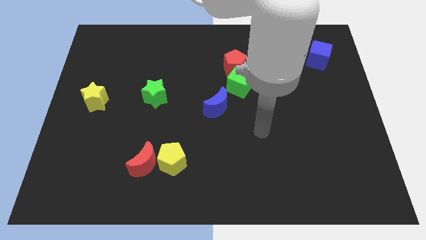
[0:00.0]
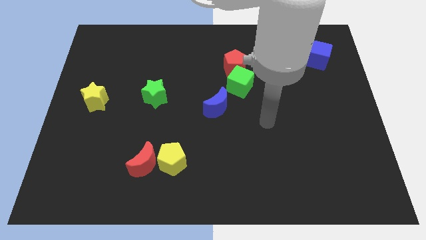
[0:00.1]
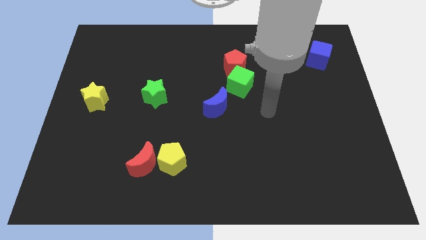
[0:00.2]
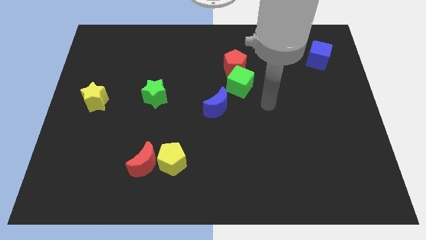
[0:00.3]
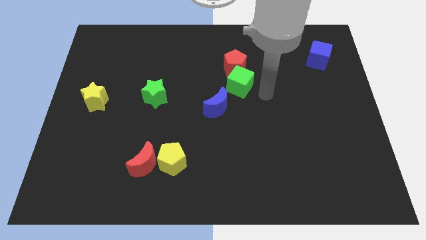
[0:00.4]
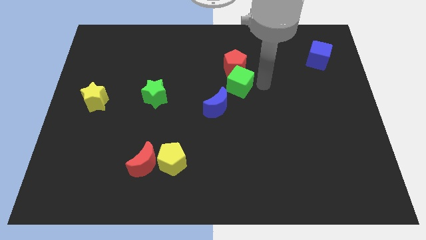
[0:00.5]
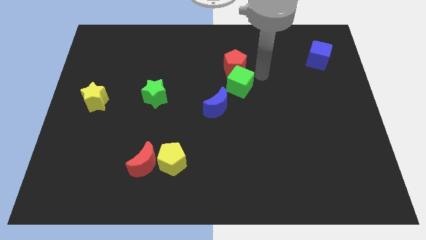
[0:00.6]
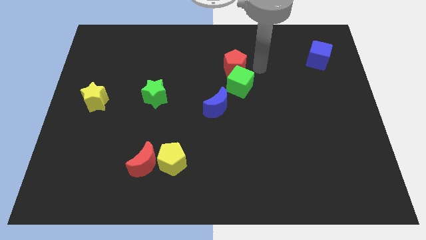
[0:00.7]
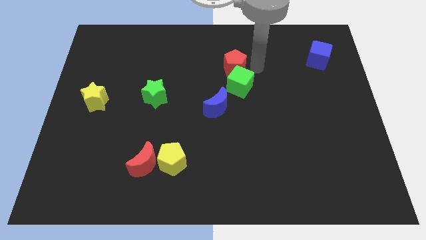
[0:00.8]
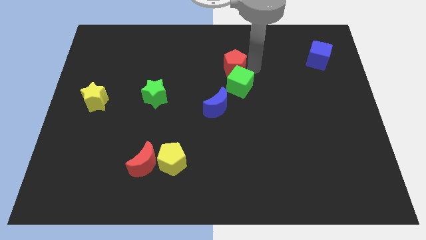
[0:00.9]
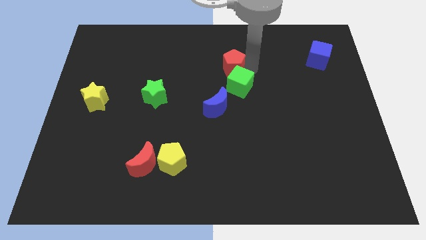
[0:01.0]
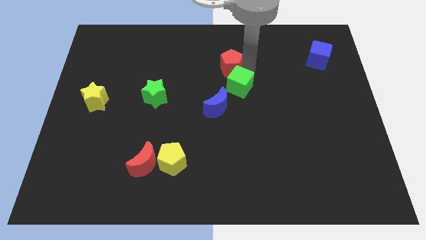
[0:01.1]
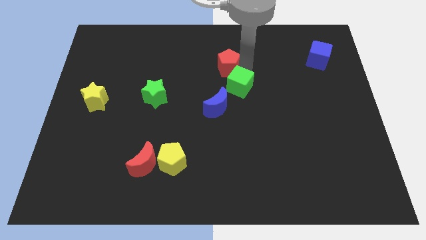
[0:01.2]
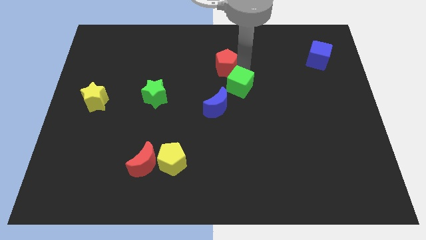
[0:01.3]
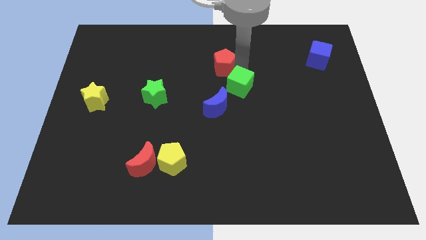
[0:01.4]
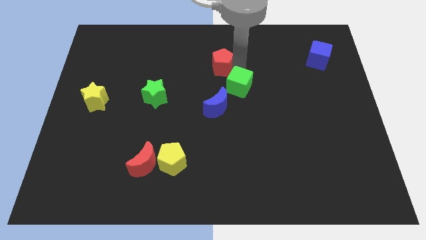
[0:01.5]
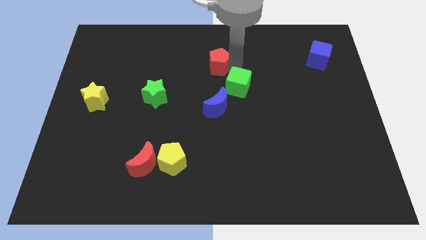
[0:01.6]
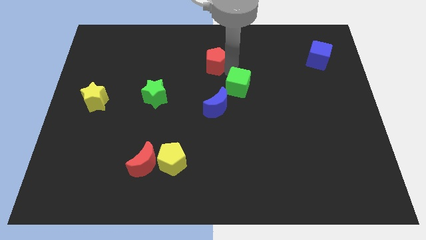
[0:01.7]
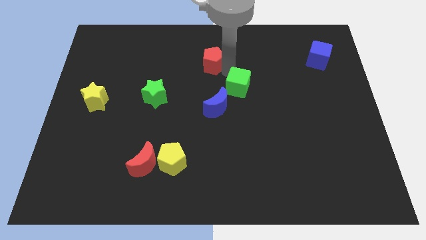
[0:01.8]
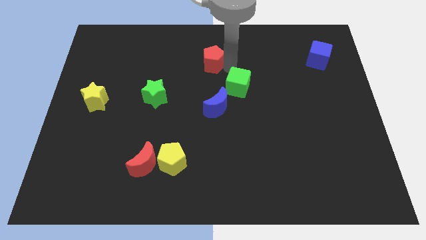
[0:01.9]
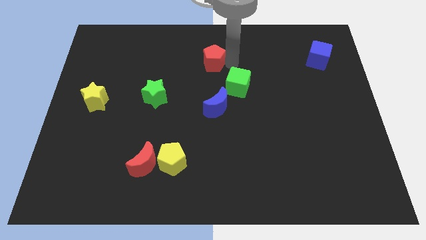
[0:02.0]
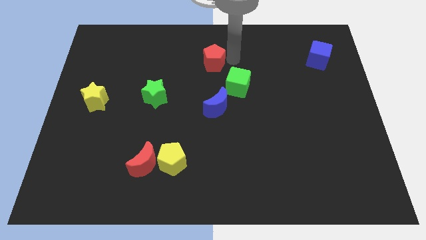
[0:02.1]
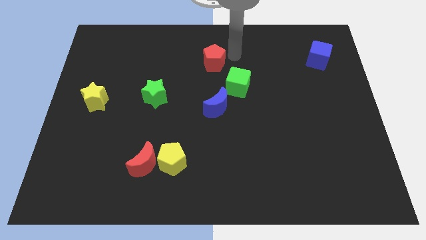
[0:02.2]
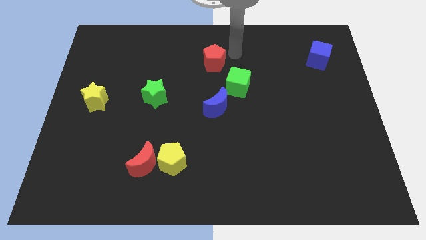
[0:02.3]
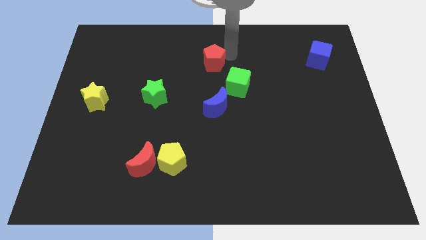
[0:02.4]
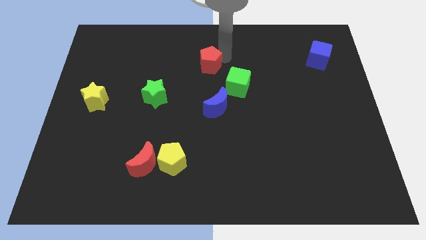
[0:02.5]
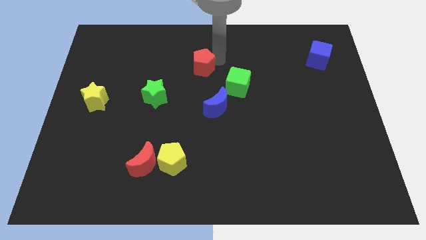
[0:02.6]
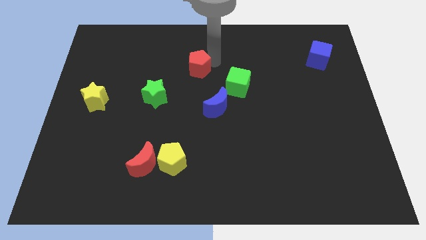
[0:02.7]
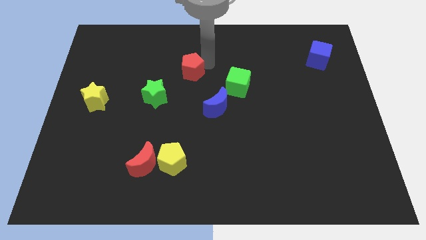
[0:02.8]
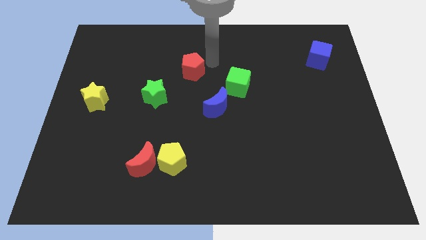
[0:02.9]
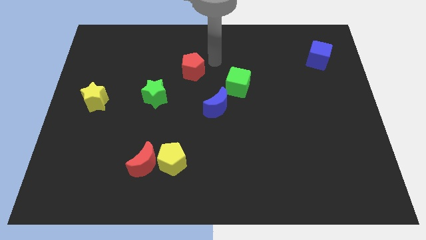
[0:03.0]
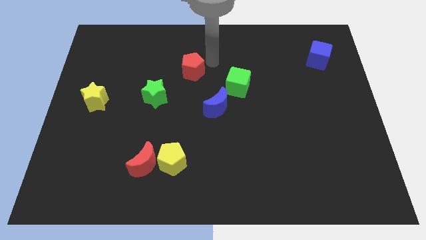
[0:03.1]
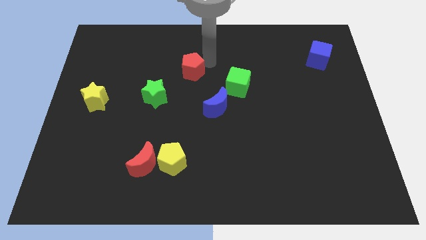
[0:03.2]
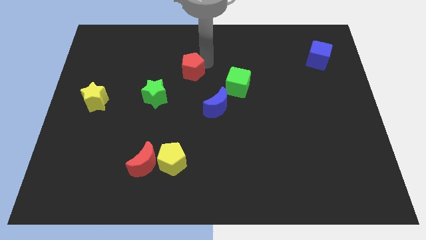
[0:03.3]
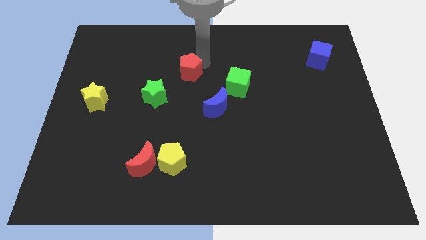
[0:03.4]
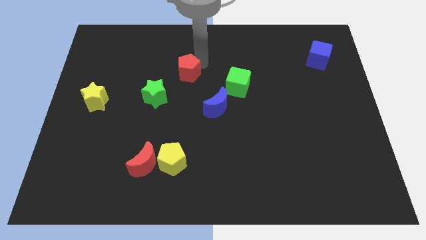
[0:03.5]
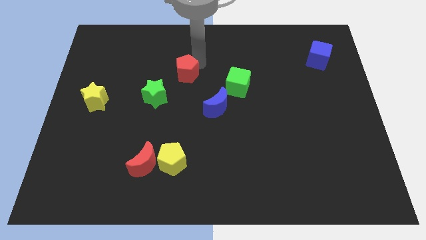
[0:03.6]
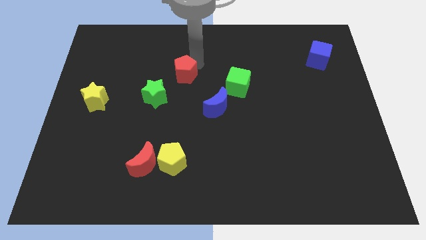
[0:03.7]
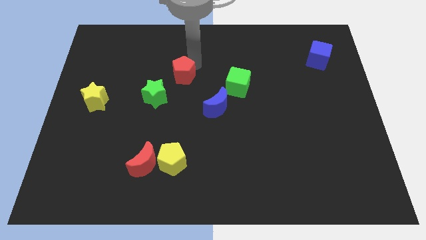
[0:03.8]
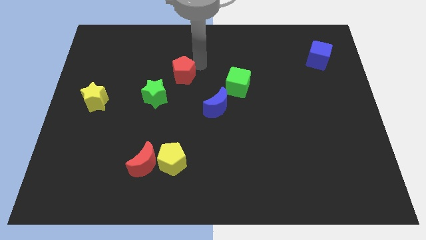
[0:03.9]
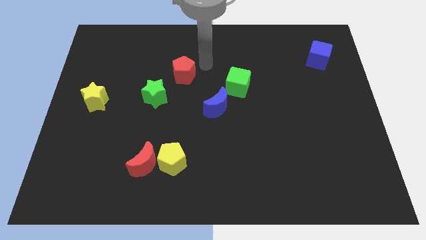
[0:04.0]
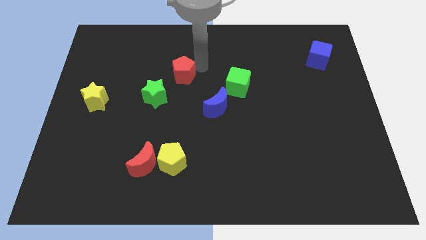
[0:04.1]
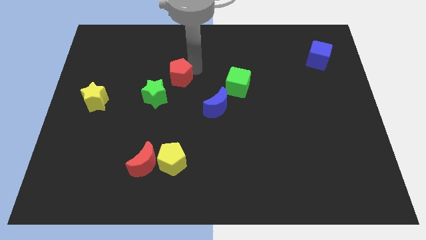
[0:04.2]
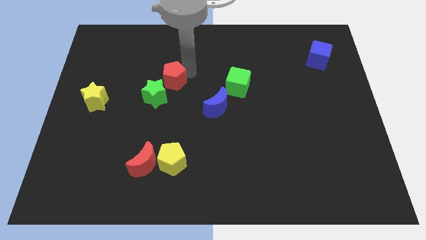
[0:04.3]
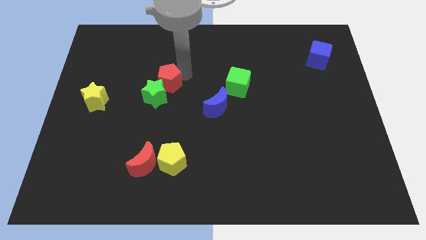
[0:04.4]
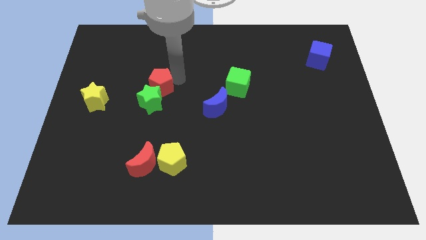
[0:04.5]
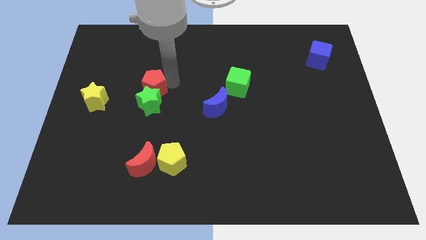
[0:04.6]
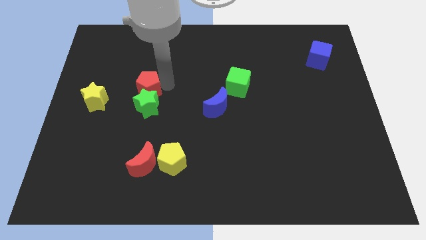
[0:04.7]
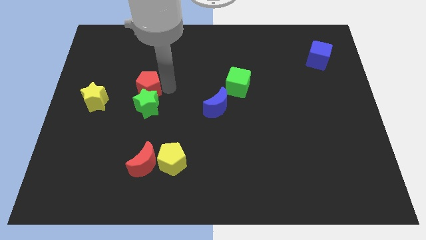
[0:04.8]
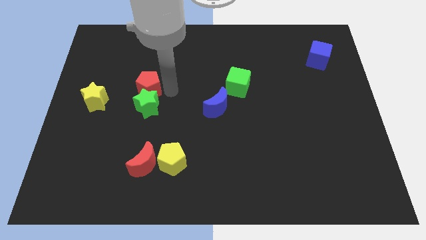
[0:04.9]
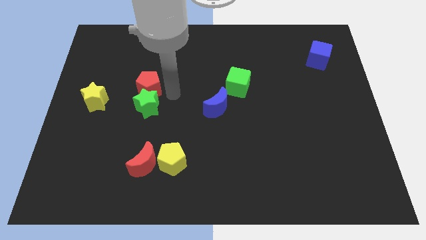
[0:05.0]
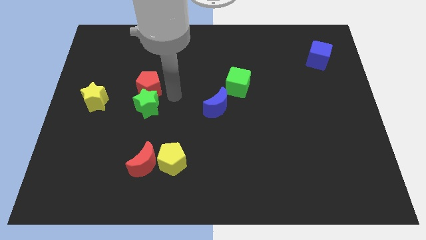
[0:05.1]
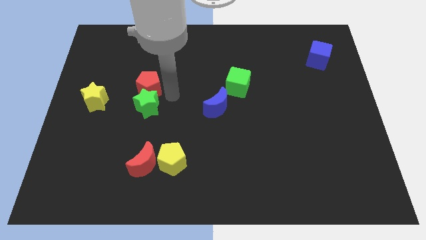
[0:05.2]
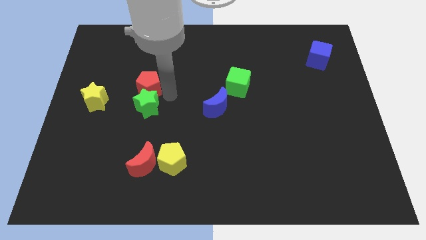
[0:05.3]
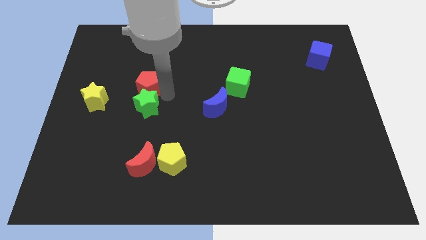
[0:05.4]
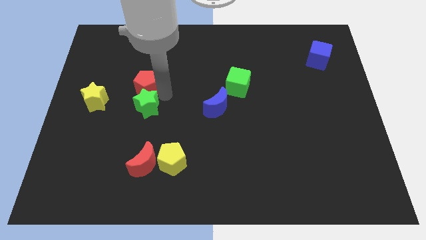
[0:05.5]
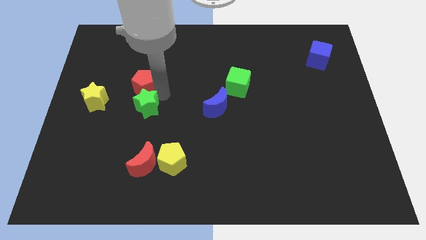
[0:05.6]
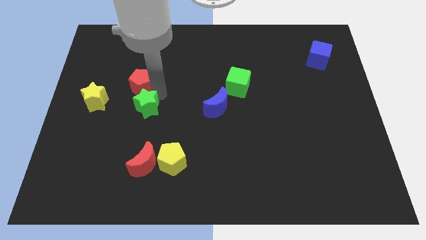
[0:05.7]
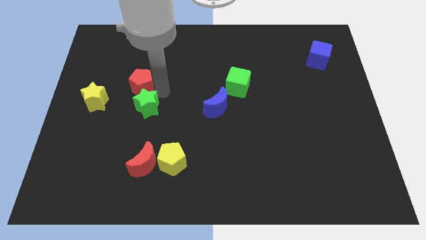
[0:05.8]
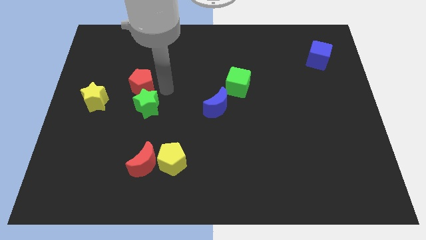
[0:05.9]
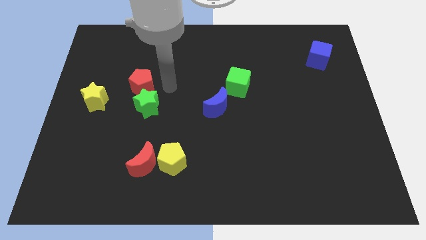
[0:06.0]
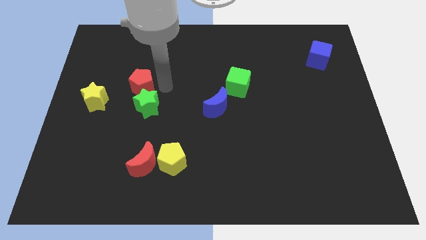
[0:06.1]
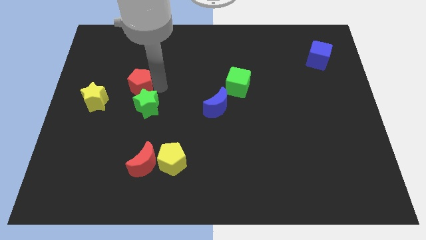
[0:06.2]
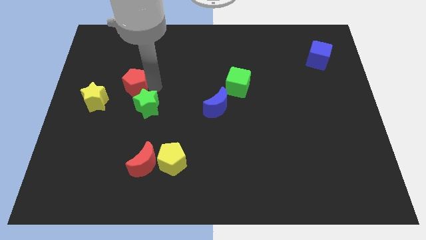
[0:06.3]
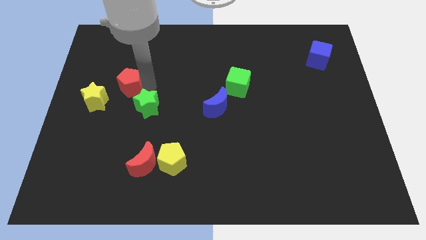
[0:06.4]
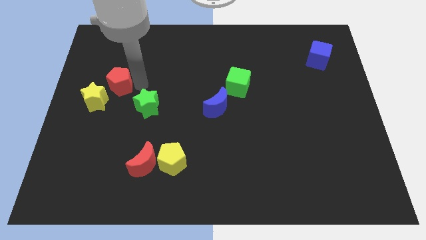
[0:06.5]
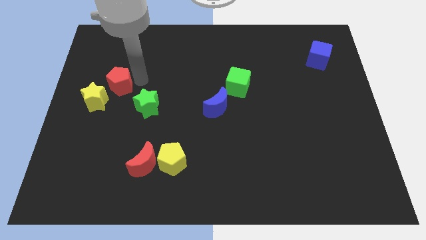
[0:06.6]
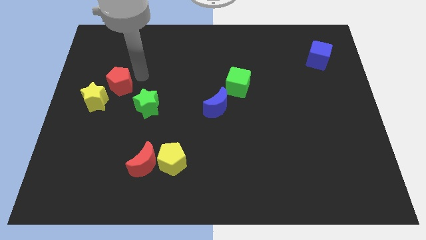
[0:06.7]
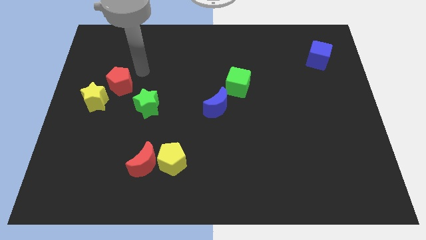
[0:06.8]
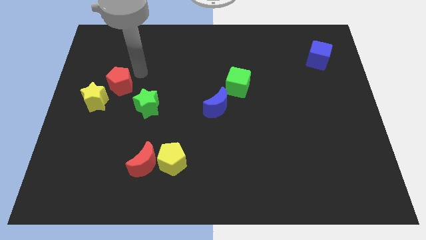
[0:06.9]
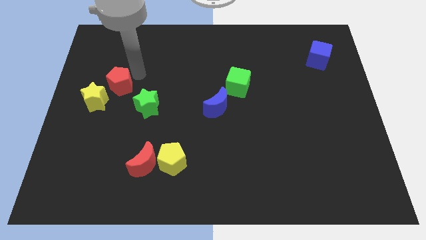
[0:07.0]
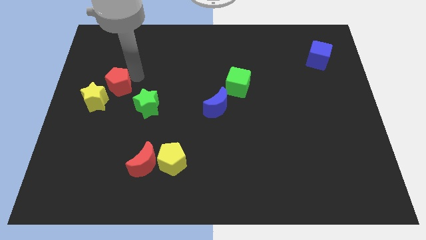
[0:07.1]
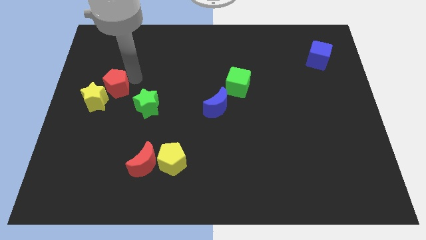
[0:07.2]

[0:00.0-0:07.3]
push the red pentagon next to the yellow star
